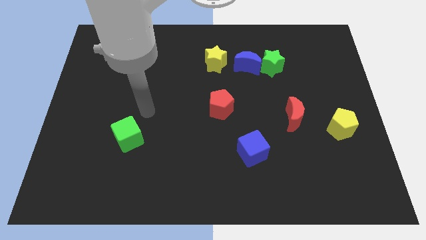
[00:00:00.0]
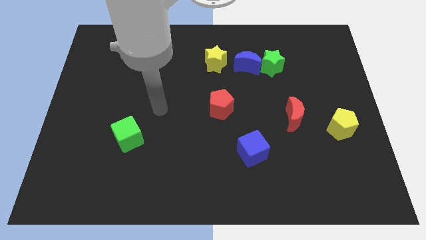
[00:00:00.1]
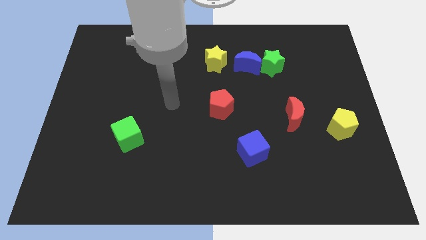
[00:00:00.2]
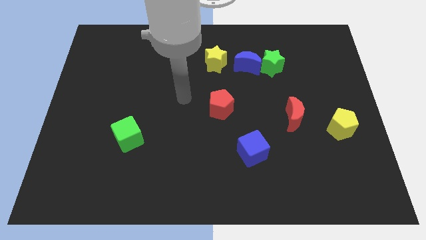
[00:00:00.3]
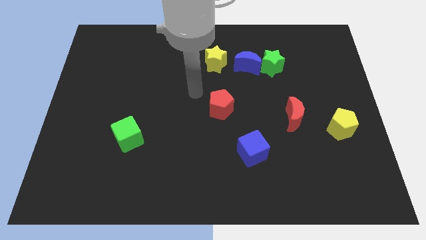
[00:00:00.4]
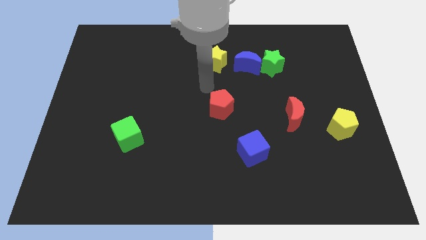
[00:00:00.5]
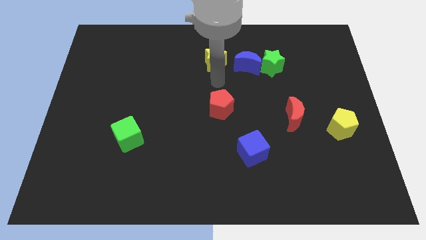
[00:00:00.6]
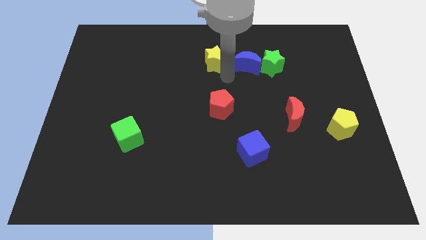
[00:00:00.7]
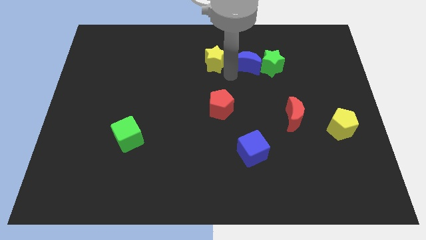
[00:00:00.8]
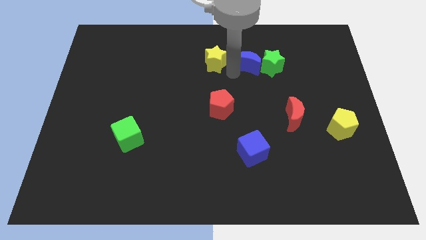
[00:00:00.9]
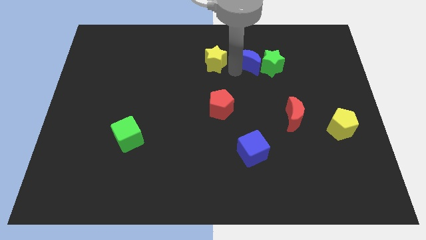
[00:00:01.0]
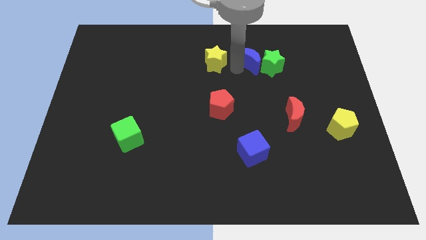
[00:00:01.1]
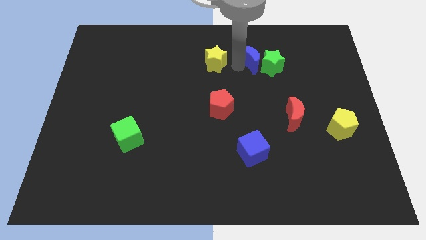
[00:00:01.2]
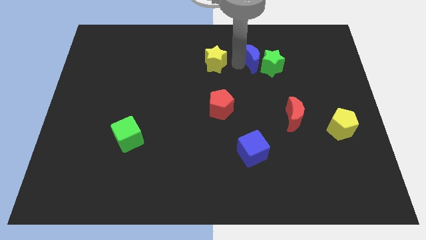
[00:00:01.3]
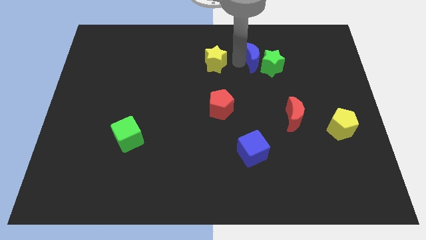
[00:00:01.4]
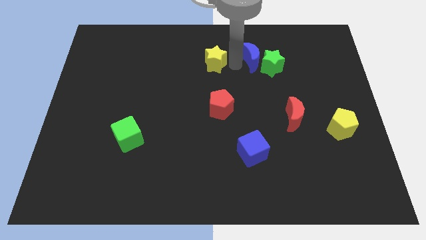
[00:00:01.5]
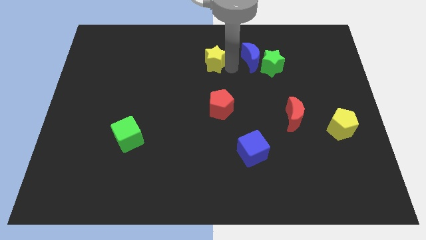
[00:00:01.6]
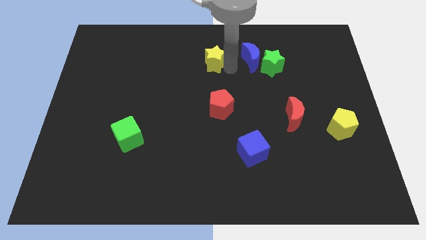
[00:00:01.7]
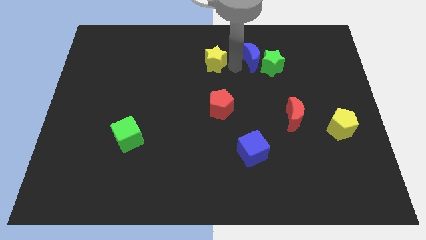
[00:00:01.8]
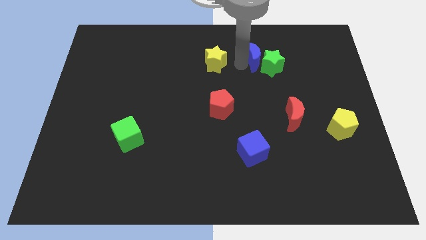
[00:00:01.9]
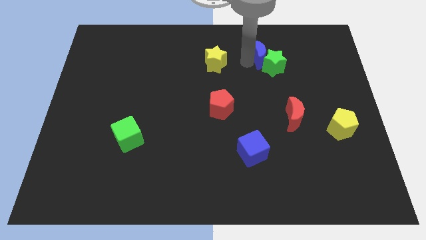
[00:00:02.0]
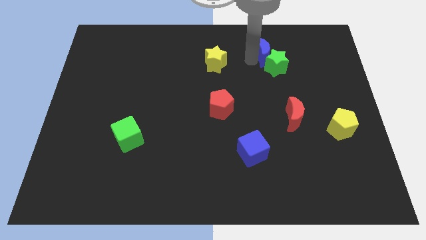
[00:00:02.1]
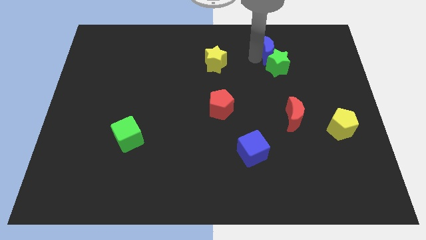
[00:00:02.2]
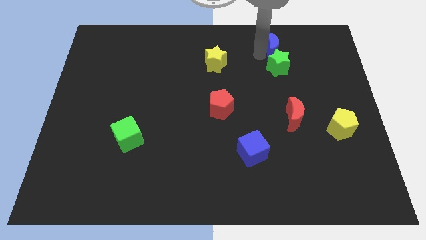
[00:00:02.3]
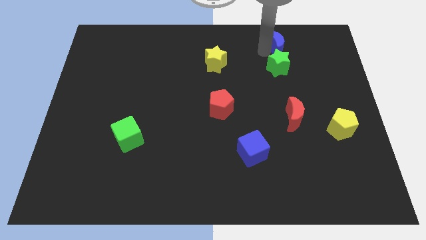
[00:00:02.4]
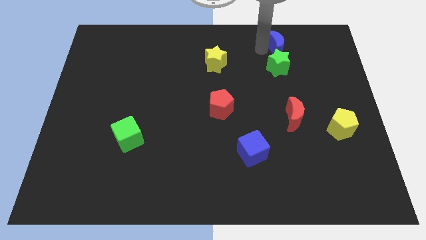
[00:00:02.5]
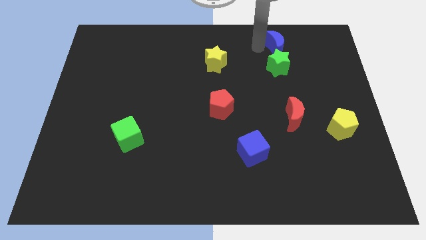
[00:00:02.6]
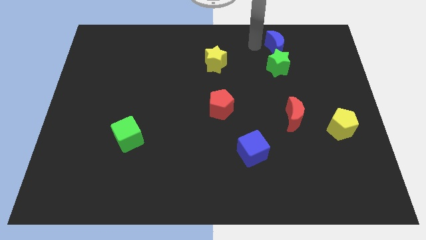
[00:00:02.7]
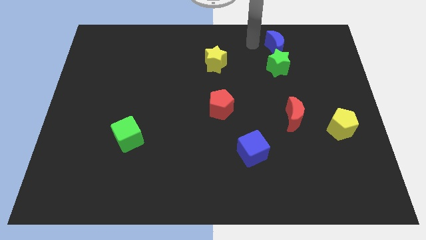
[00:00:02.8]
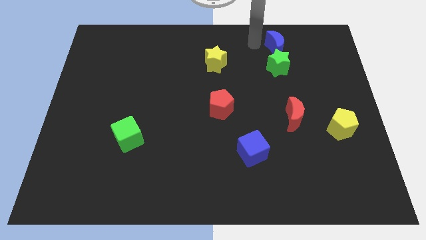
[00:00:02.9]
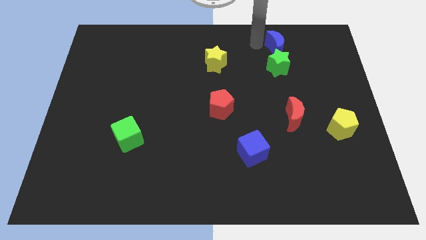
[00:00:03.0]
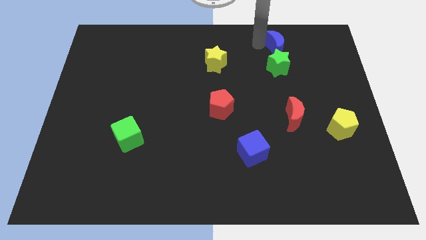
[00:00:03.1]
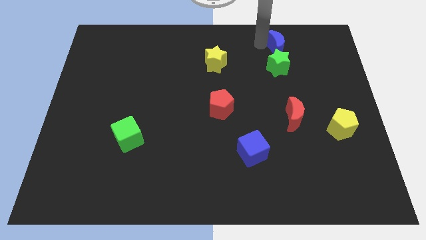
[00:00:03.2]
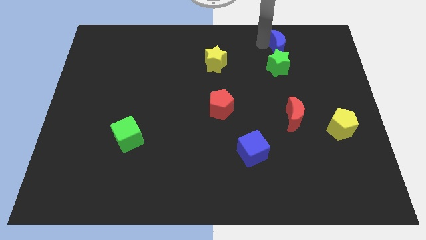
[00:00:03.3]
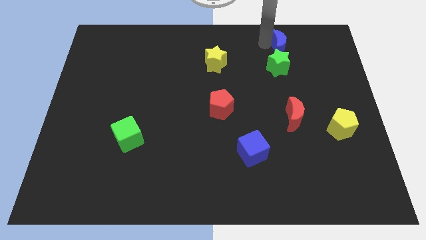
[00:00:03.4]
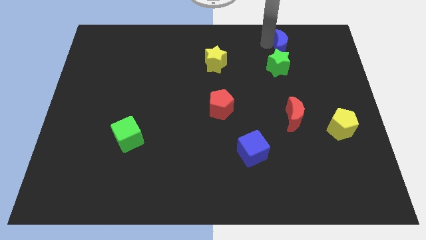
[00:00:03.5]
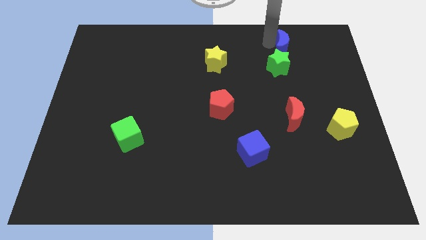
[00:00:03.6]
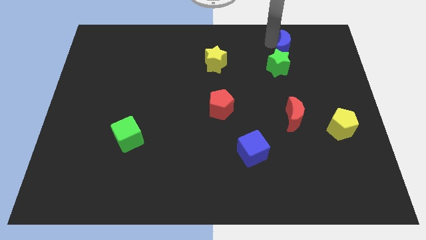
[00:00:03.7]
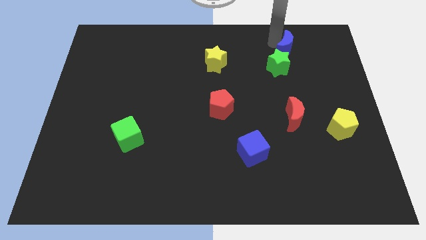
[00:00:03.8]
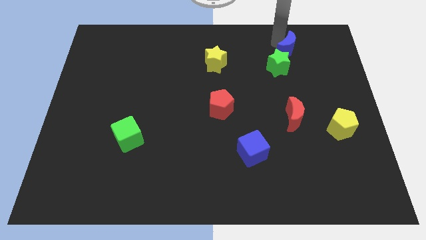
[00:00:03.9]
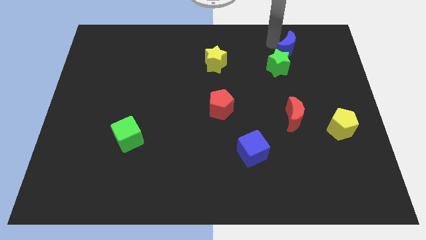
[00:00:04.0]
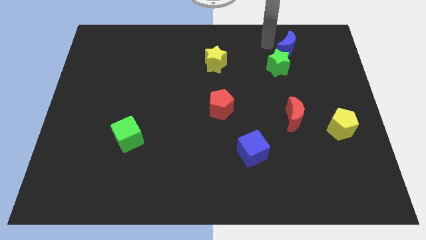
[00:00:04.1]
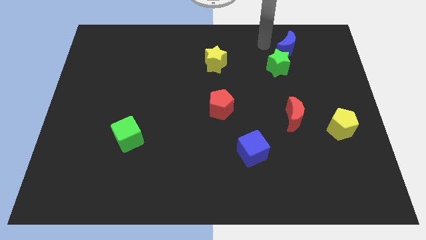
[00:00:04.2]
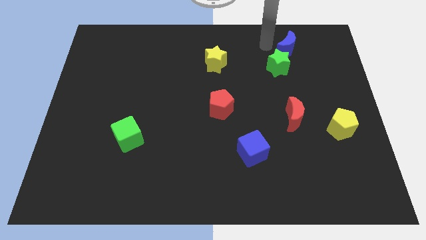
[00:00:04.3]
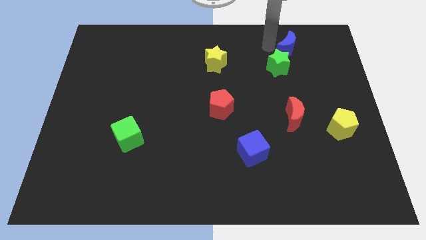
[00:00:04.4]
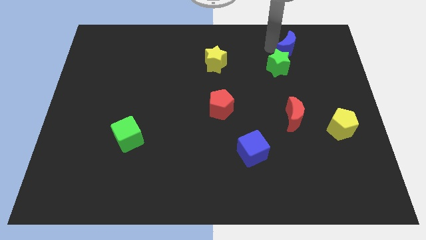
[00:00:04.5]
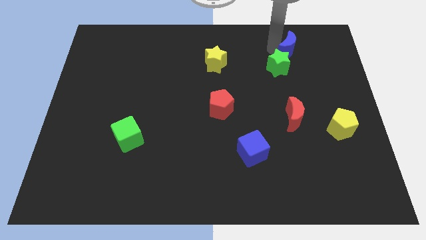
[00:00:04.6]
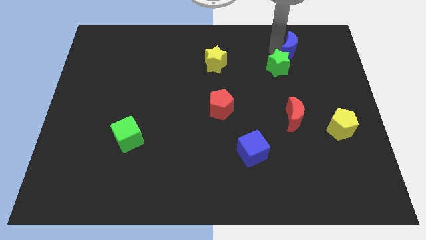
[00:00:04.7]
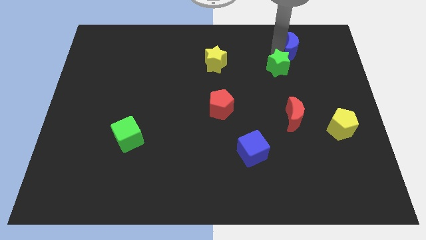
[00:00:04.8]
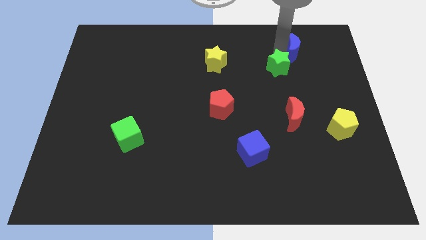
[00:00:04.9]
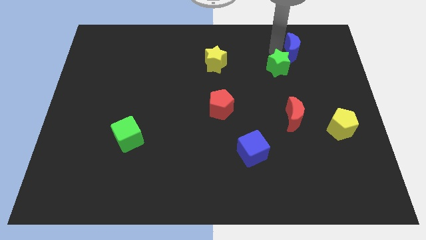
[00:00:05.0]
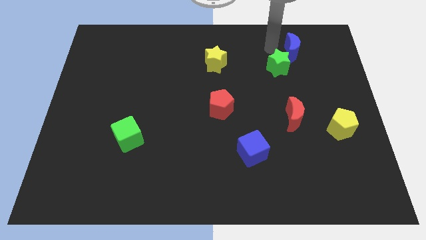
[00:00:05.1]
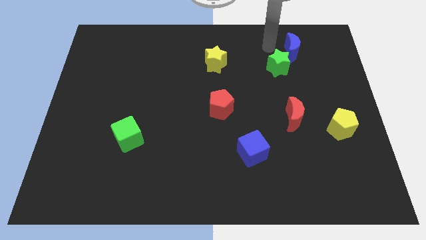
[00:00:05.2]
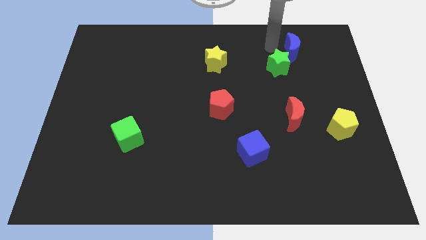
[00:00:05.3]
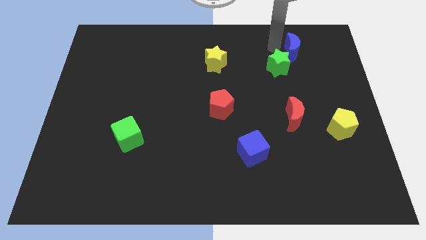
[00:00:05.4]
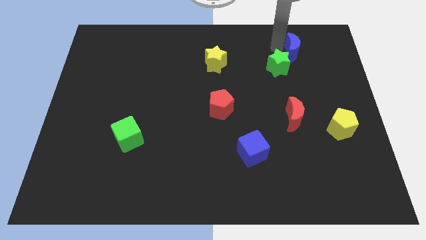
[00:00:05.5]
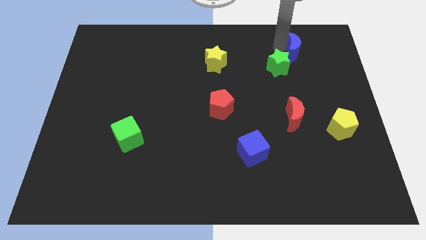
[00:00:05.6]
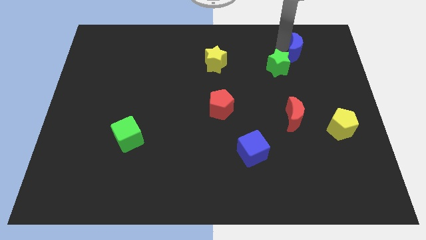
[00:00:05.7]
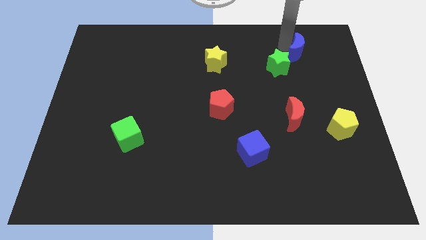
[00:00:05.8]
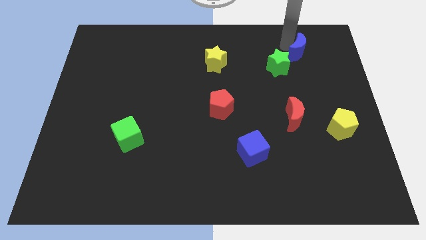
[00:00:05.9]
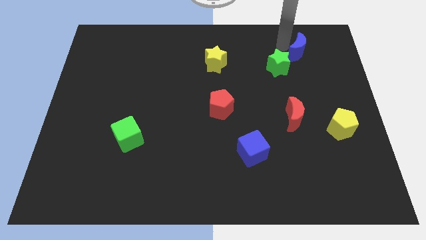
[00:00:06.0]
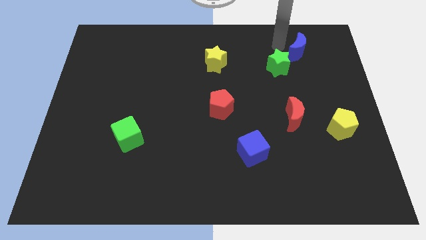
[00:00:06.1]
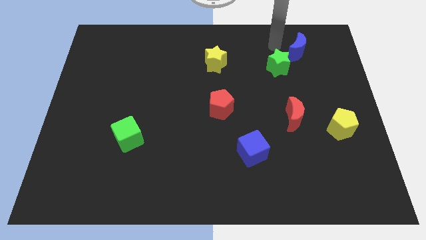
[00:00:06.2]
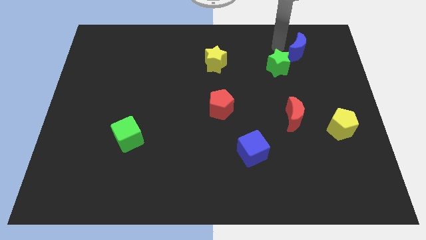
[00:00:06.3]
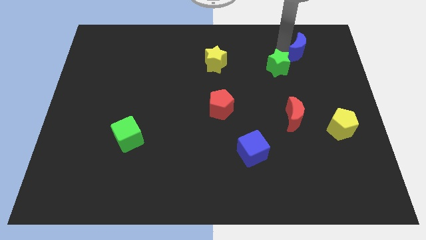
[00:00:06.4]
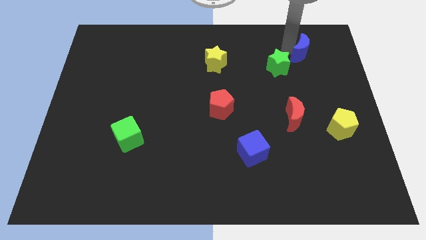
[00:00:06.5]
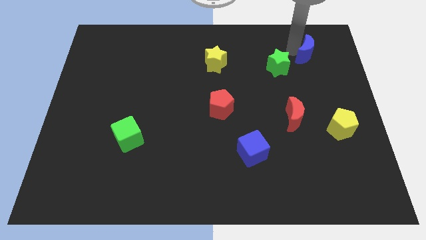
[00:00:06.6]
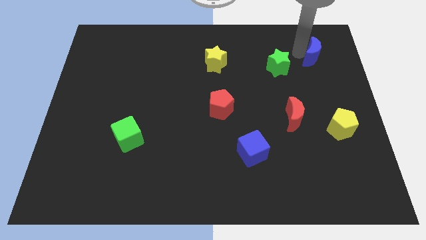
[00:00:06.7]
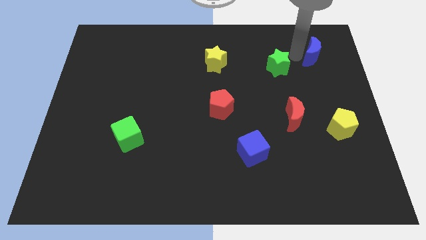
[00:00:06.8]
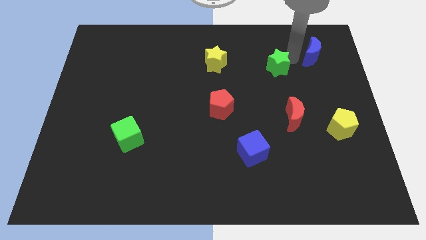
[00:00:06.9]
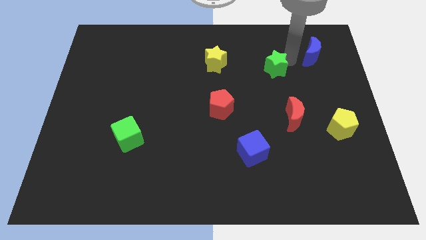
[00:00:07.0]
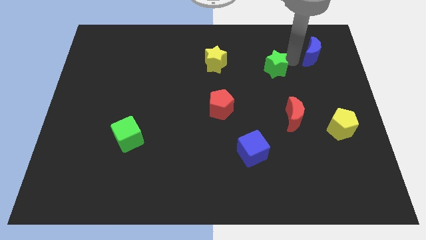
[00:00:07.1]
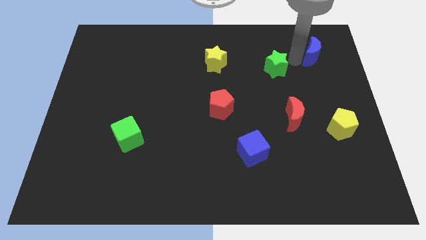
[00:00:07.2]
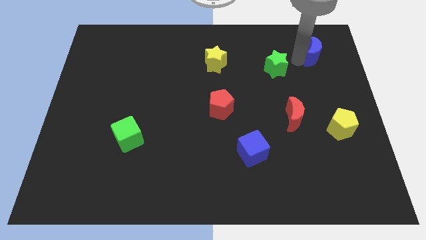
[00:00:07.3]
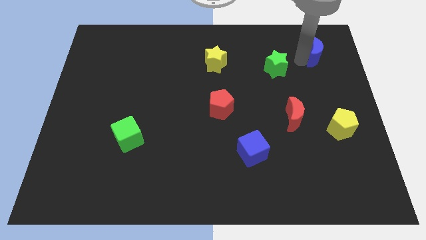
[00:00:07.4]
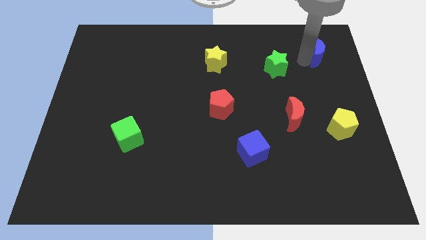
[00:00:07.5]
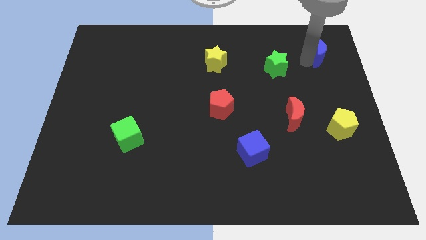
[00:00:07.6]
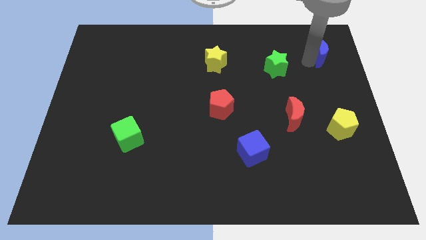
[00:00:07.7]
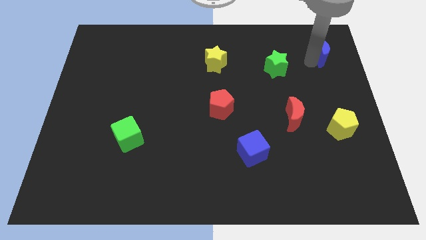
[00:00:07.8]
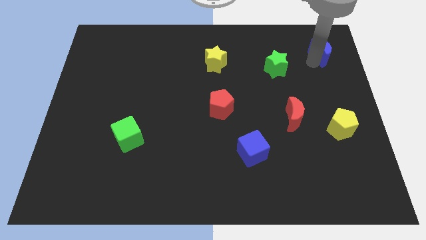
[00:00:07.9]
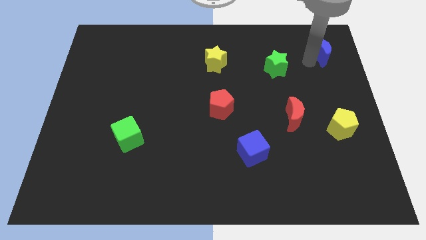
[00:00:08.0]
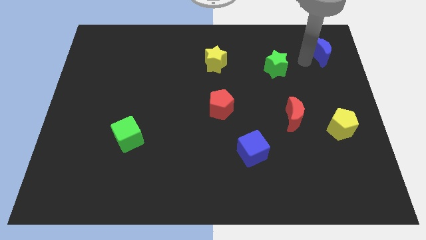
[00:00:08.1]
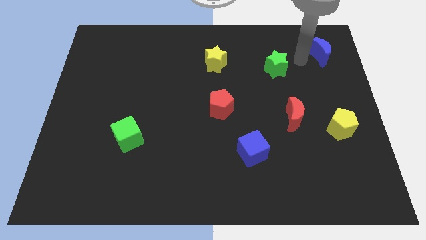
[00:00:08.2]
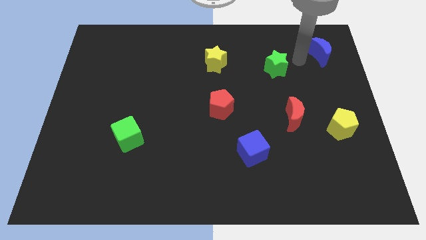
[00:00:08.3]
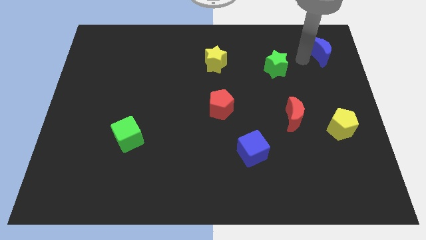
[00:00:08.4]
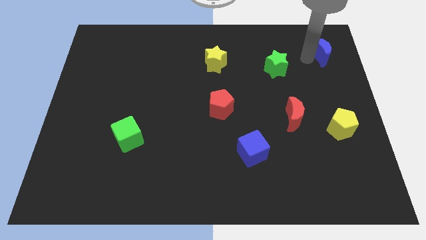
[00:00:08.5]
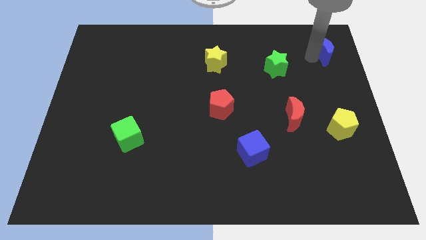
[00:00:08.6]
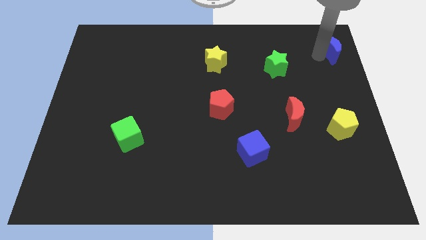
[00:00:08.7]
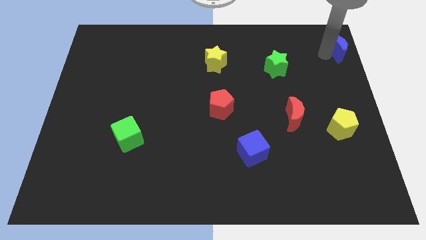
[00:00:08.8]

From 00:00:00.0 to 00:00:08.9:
push the blue moon to the top right
